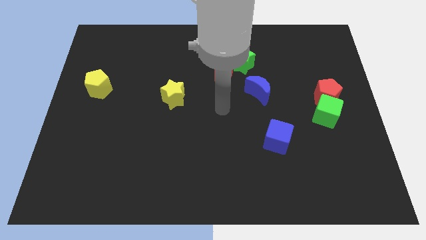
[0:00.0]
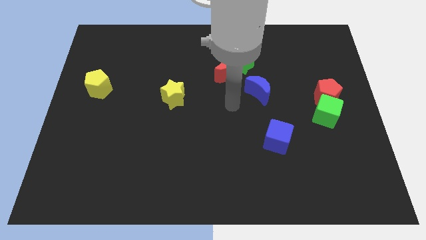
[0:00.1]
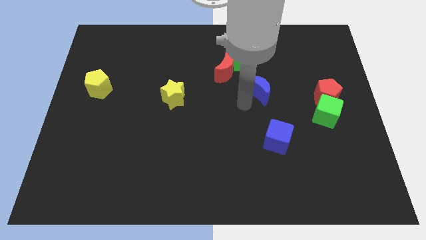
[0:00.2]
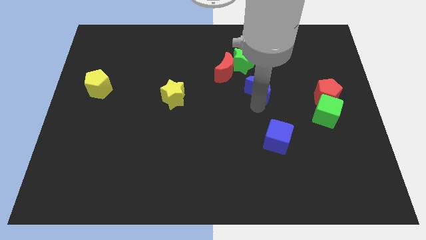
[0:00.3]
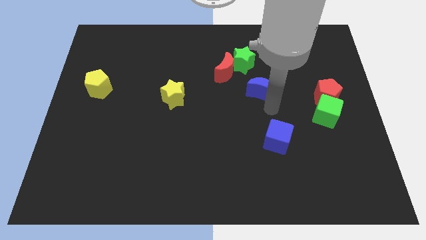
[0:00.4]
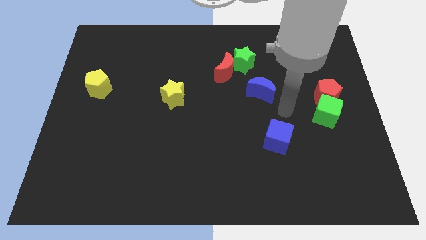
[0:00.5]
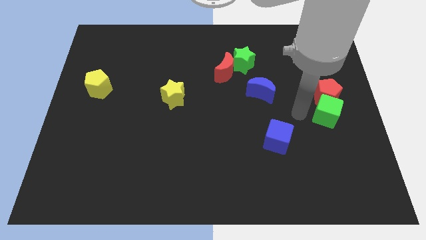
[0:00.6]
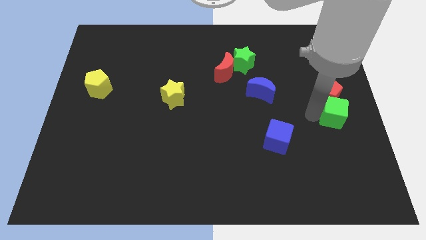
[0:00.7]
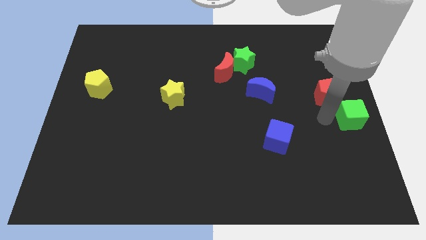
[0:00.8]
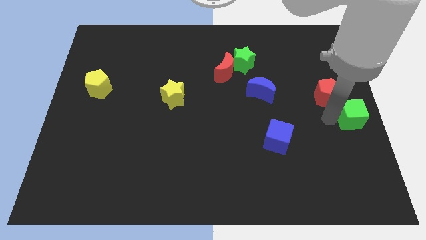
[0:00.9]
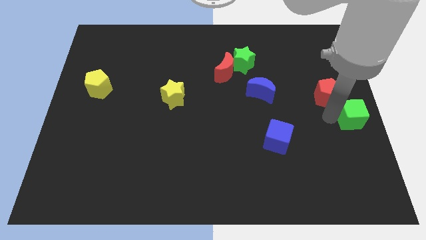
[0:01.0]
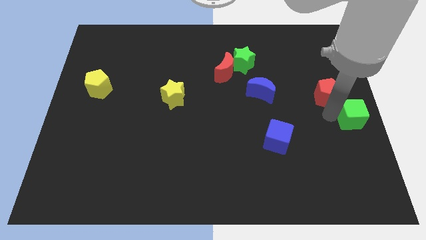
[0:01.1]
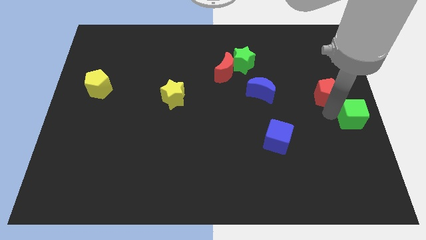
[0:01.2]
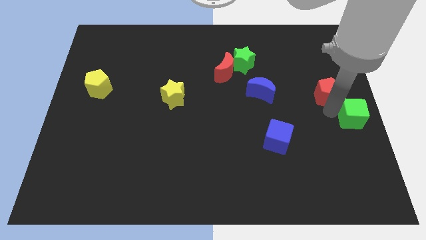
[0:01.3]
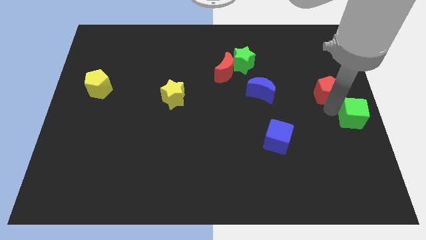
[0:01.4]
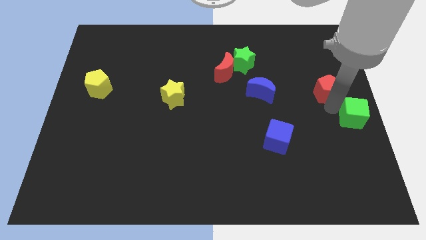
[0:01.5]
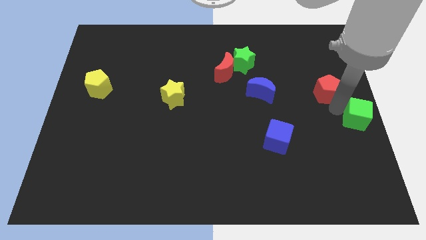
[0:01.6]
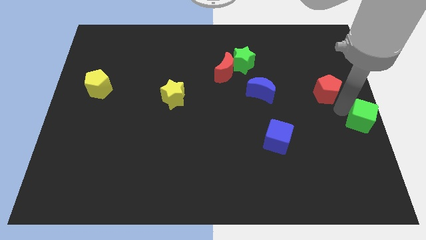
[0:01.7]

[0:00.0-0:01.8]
pull the red pentagon apart from the green cube

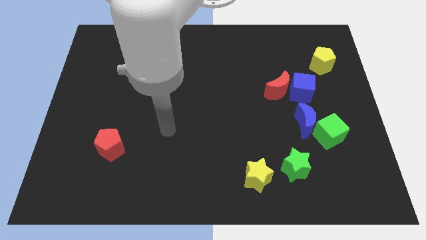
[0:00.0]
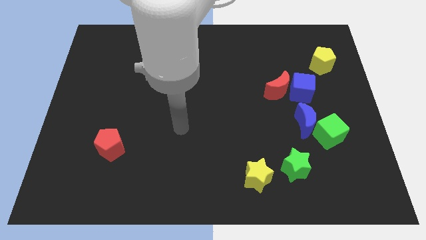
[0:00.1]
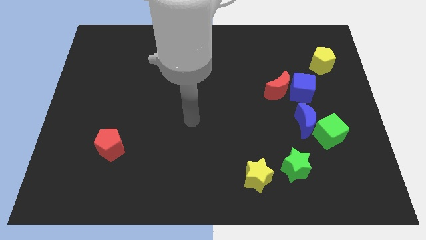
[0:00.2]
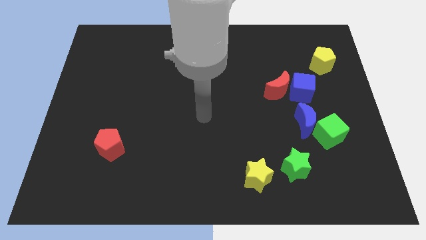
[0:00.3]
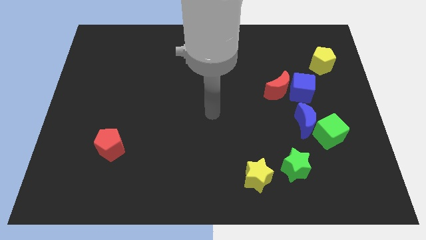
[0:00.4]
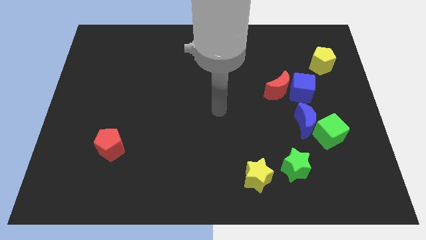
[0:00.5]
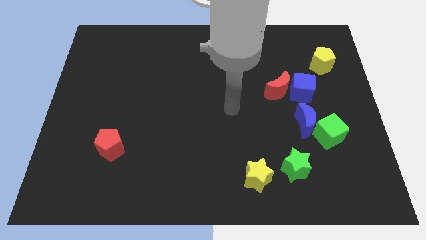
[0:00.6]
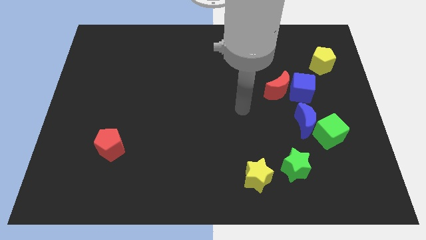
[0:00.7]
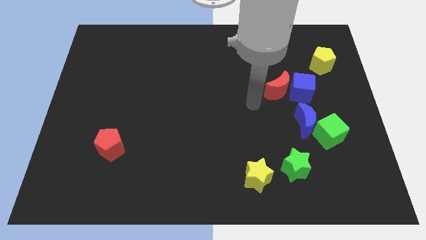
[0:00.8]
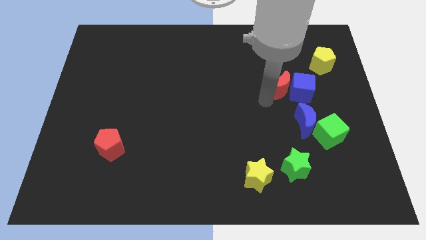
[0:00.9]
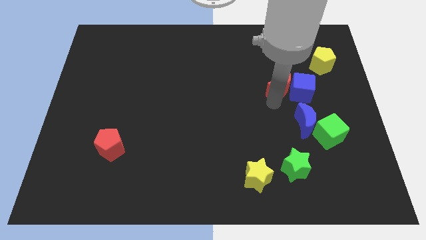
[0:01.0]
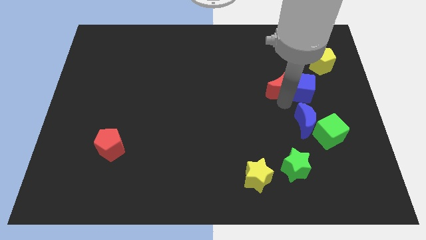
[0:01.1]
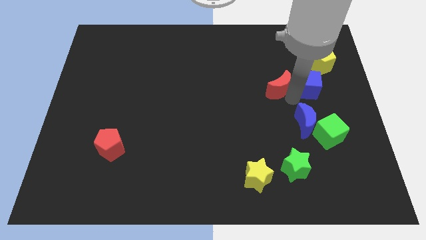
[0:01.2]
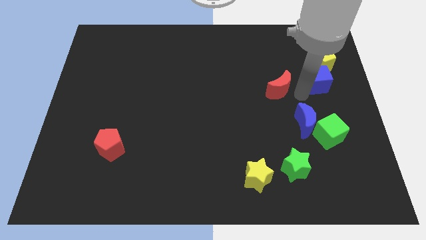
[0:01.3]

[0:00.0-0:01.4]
separate the red moon from the blue cube

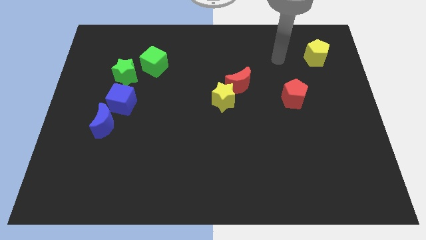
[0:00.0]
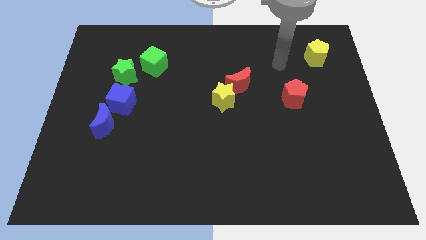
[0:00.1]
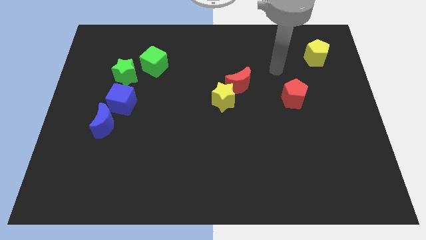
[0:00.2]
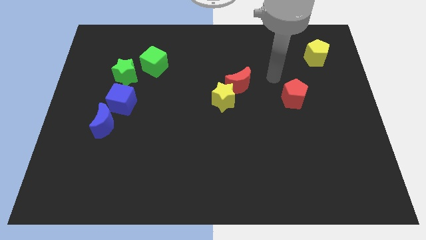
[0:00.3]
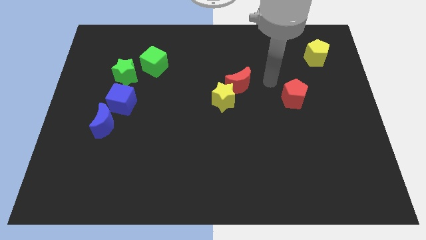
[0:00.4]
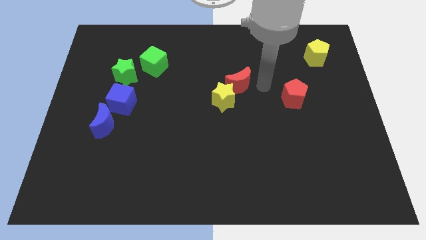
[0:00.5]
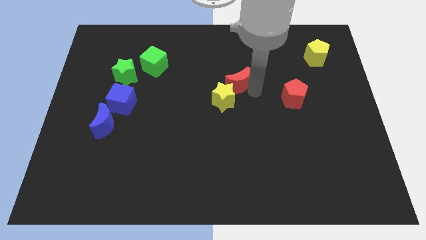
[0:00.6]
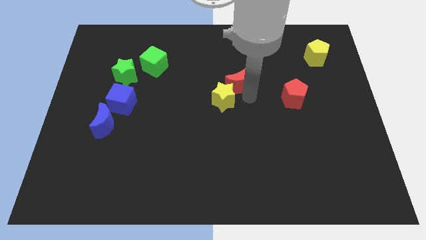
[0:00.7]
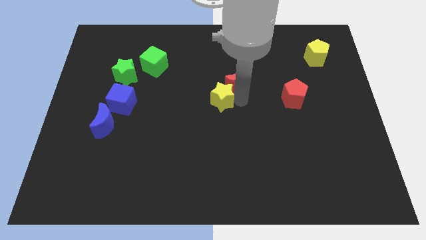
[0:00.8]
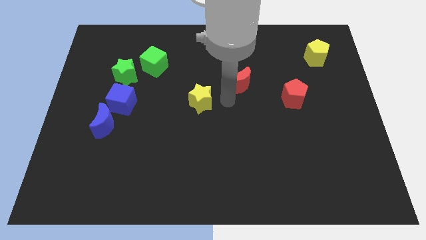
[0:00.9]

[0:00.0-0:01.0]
separate the red moon from the yellow star

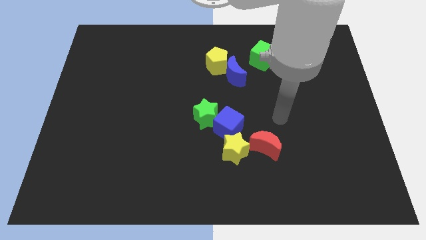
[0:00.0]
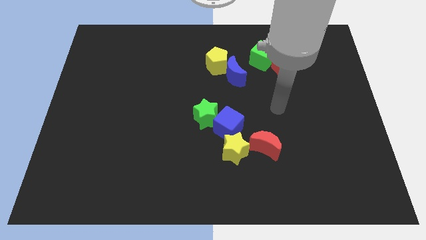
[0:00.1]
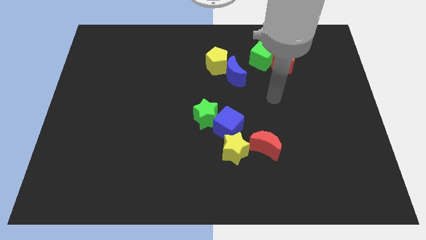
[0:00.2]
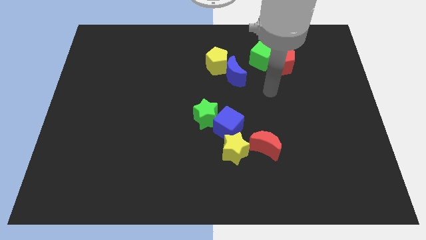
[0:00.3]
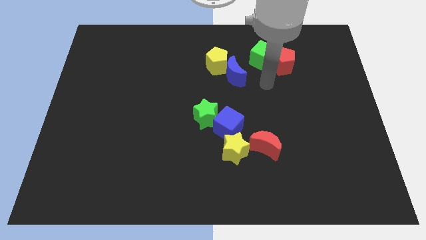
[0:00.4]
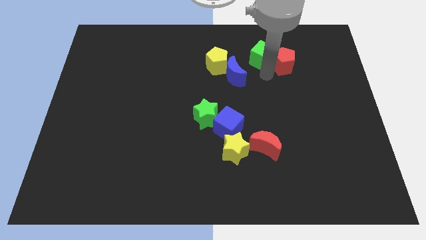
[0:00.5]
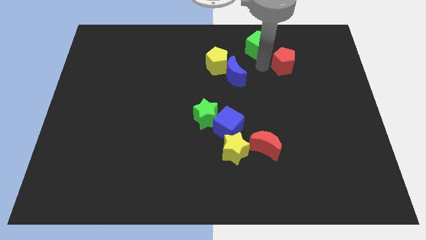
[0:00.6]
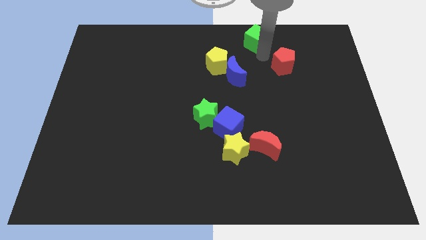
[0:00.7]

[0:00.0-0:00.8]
separate the red pentagon from the green cube

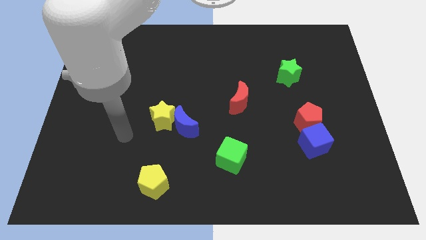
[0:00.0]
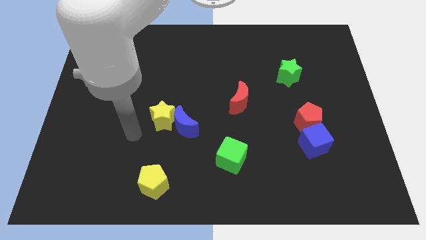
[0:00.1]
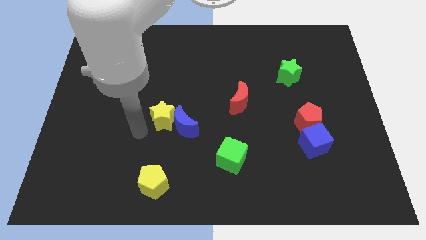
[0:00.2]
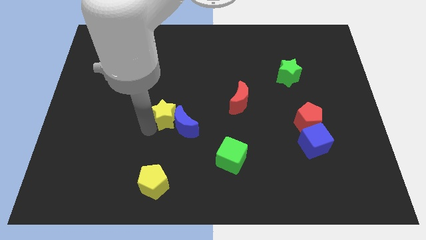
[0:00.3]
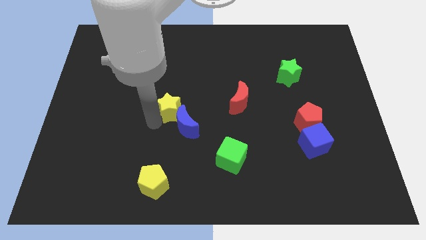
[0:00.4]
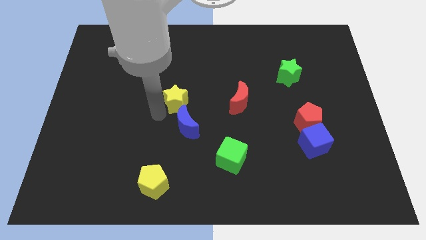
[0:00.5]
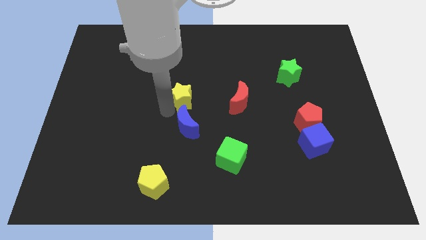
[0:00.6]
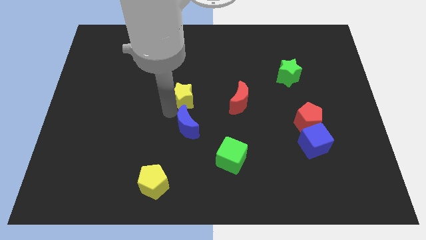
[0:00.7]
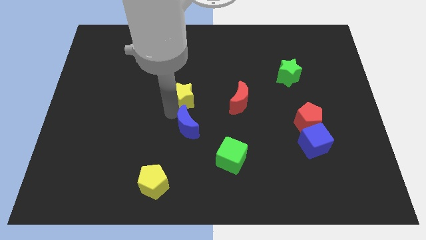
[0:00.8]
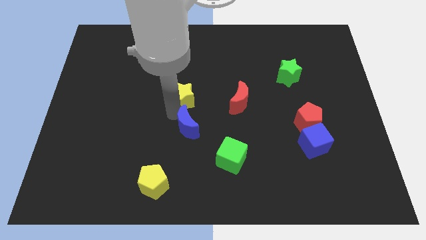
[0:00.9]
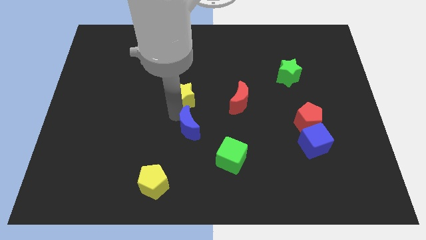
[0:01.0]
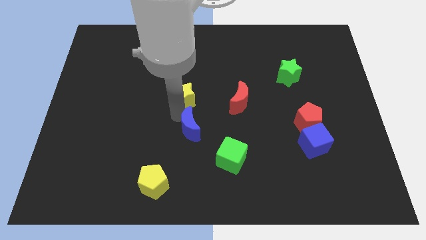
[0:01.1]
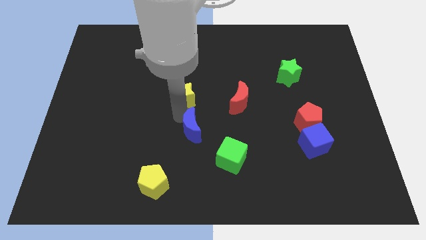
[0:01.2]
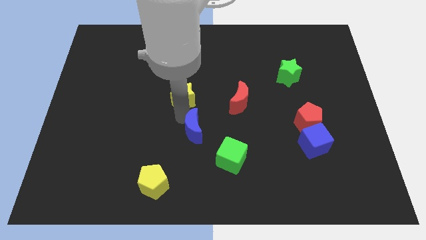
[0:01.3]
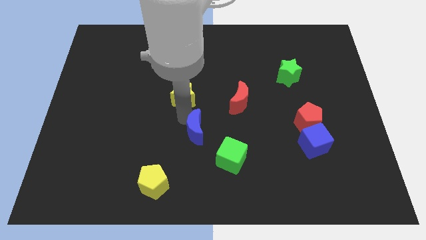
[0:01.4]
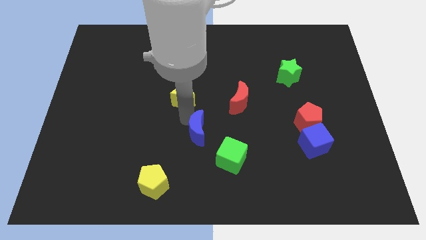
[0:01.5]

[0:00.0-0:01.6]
separate the blue moon from the yellow star

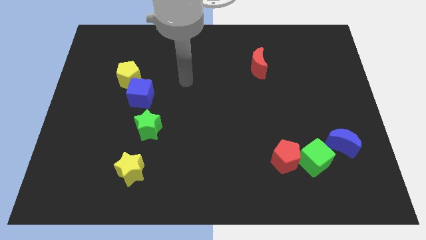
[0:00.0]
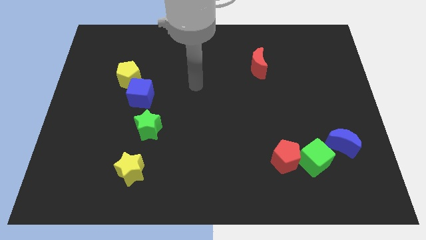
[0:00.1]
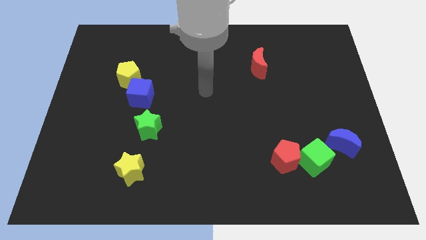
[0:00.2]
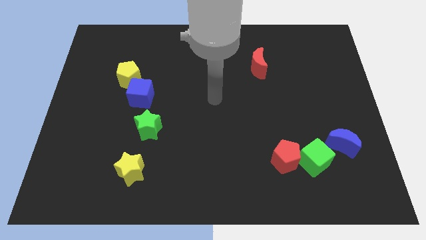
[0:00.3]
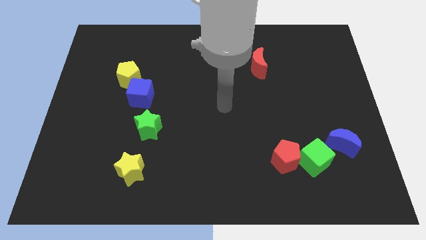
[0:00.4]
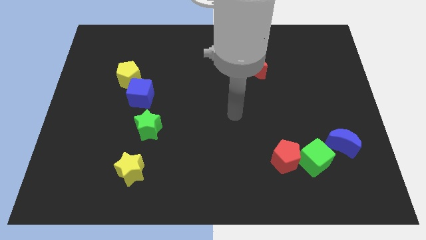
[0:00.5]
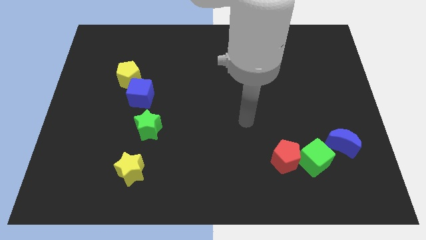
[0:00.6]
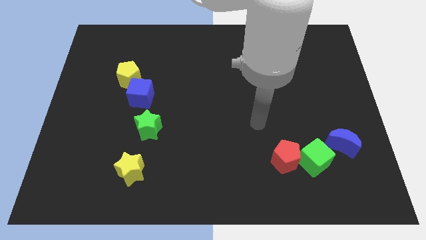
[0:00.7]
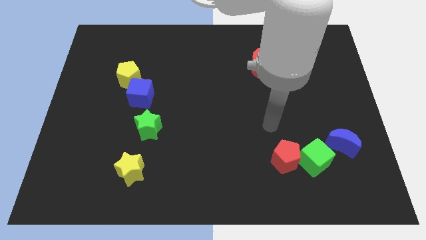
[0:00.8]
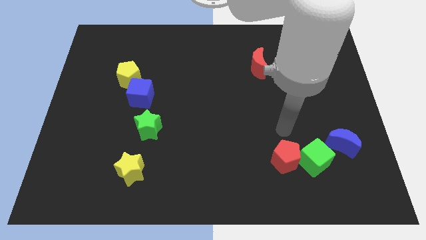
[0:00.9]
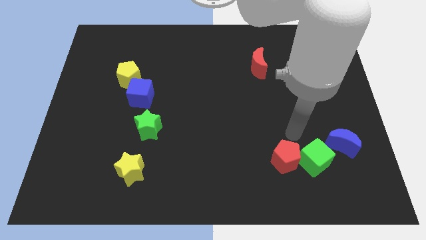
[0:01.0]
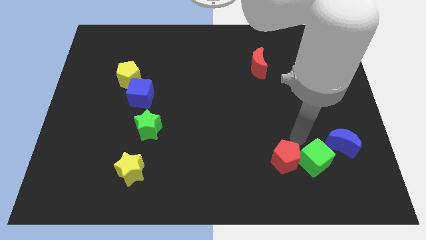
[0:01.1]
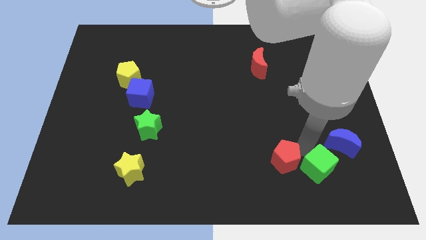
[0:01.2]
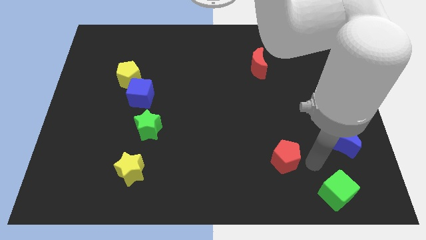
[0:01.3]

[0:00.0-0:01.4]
move the red pentagon away from the green cube

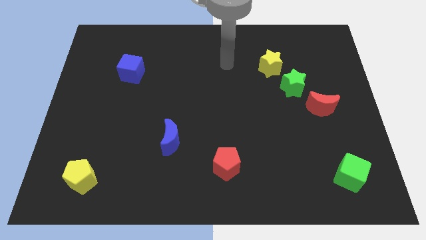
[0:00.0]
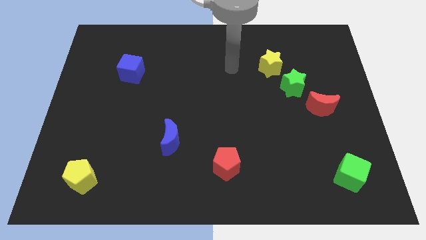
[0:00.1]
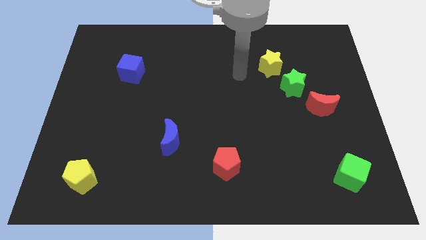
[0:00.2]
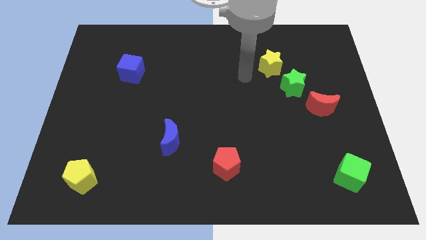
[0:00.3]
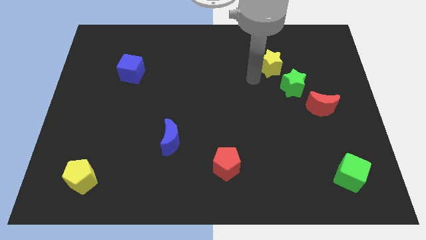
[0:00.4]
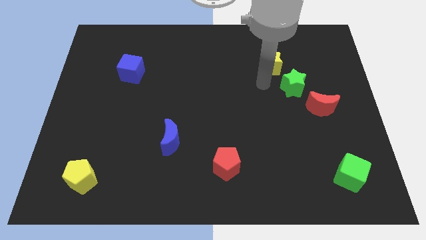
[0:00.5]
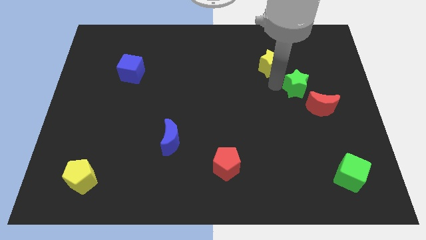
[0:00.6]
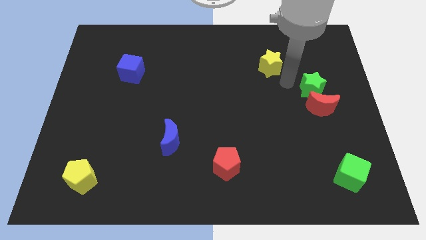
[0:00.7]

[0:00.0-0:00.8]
separate the yellow star from the green star

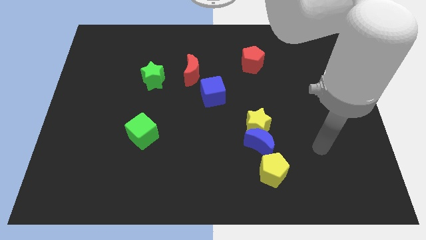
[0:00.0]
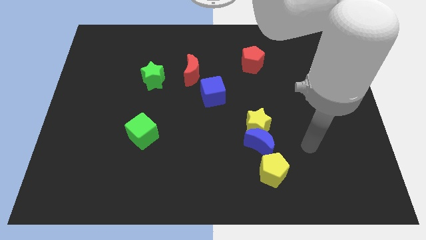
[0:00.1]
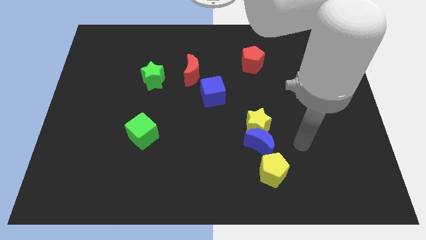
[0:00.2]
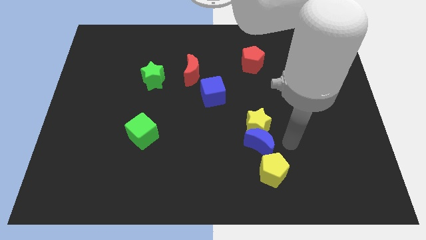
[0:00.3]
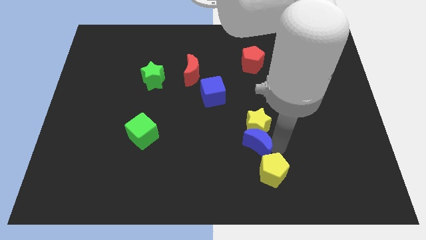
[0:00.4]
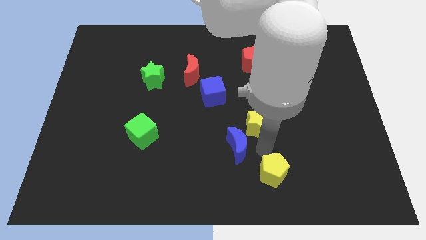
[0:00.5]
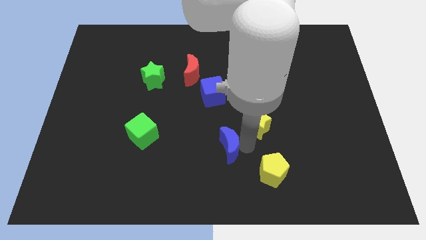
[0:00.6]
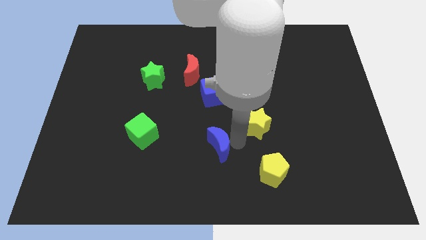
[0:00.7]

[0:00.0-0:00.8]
separate the yellow star from the blue moon
